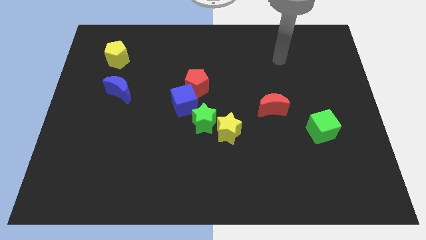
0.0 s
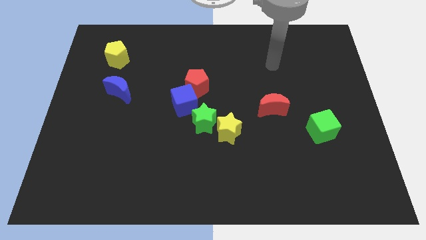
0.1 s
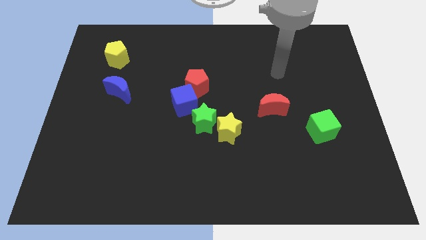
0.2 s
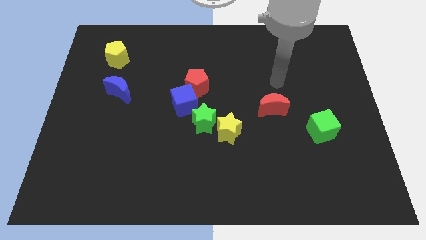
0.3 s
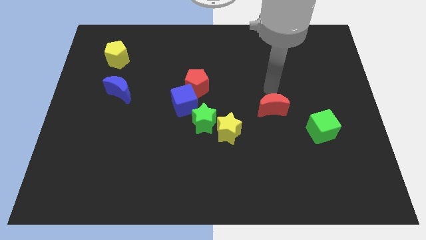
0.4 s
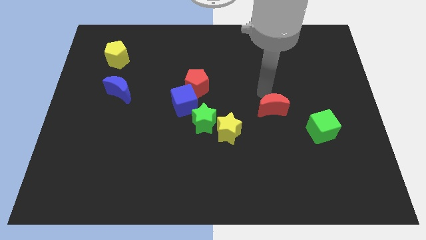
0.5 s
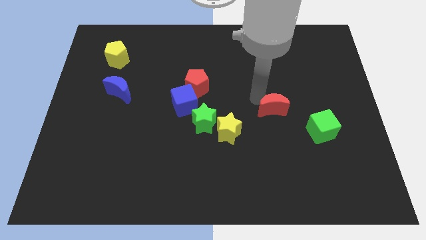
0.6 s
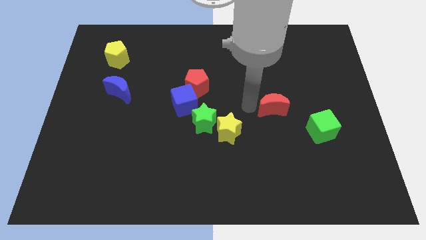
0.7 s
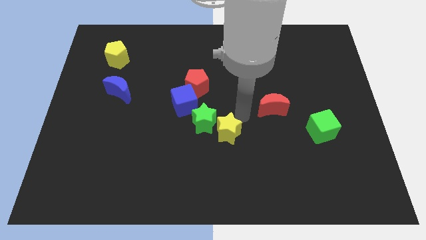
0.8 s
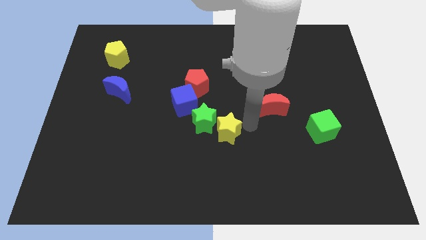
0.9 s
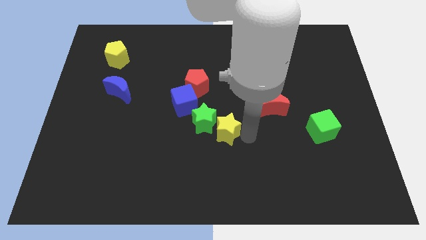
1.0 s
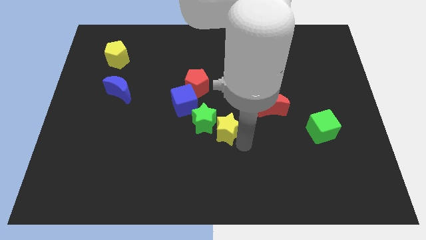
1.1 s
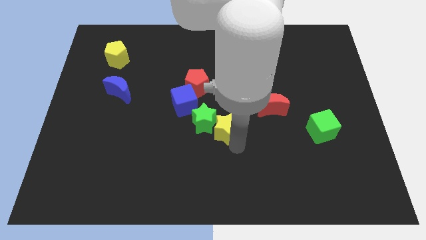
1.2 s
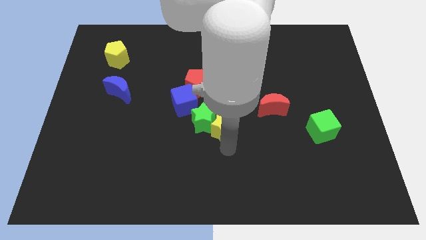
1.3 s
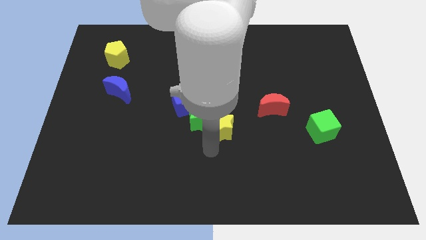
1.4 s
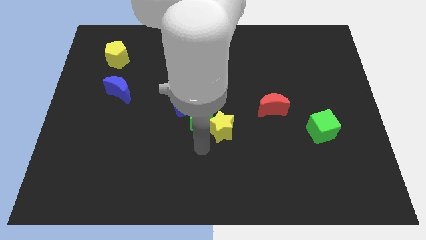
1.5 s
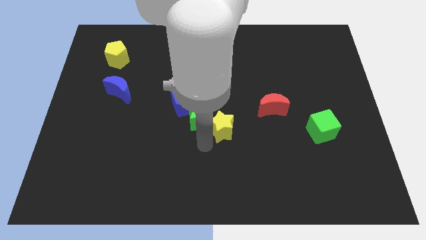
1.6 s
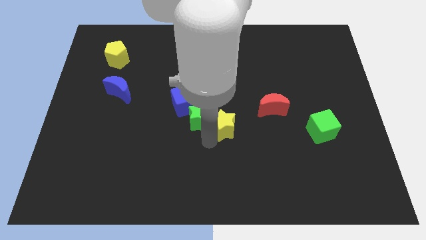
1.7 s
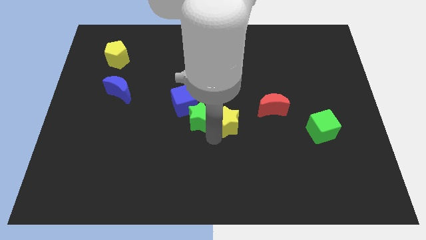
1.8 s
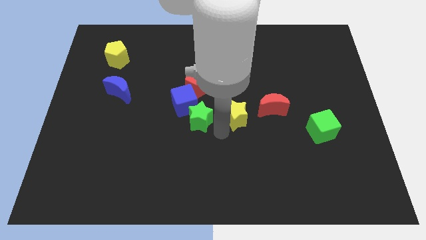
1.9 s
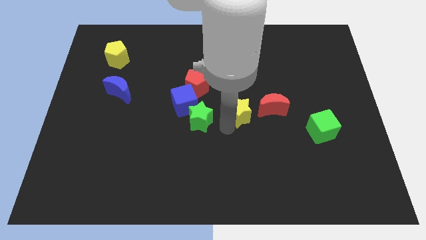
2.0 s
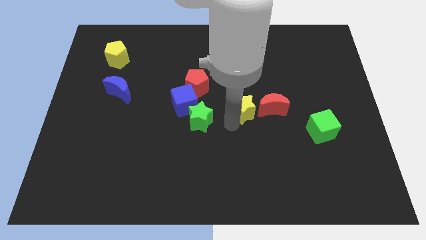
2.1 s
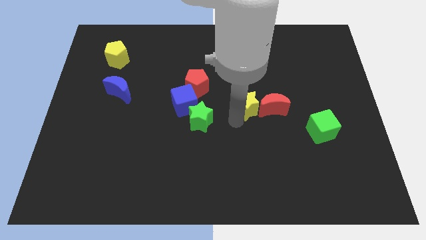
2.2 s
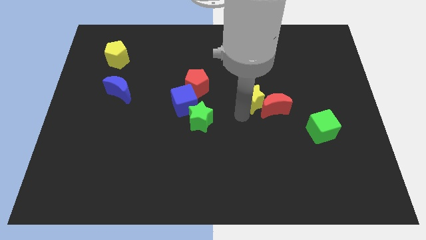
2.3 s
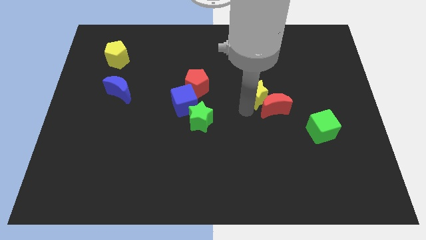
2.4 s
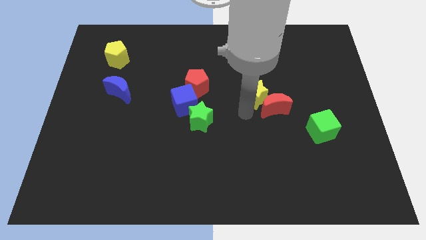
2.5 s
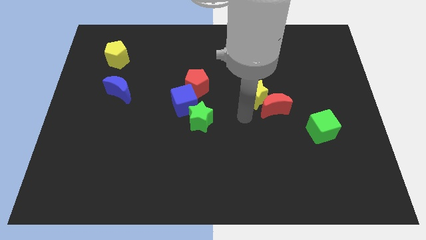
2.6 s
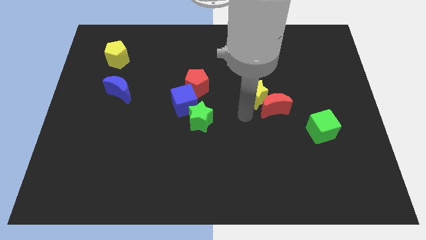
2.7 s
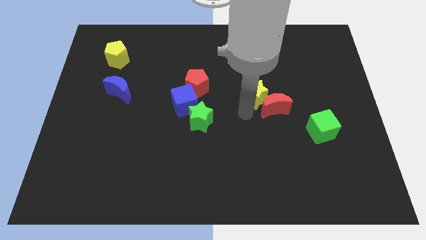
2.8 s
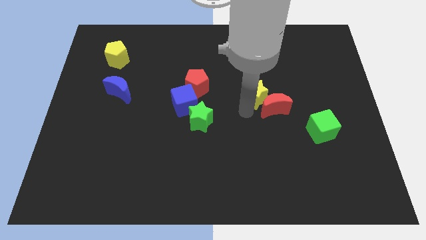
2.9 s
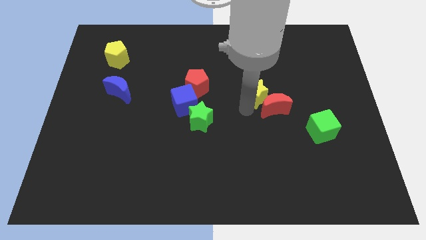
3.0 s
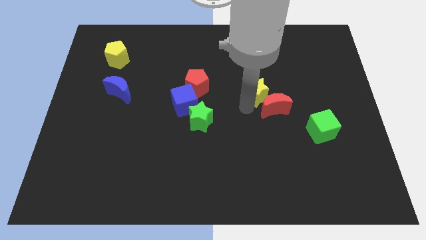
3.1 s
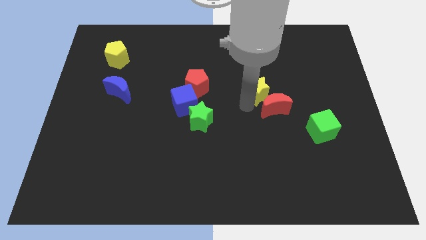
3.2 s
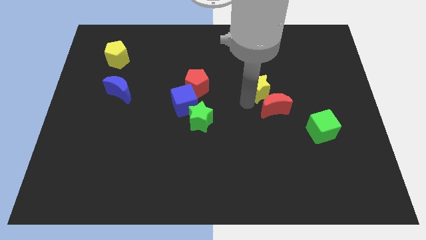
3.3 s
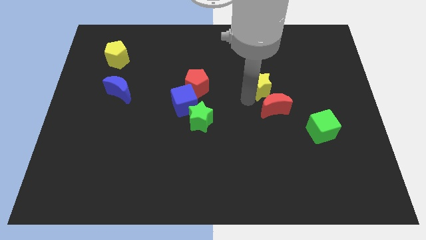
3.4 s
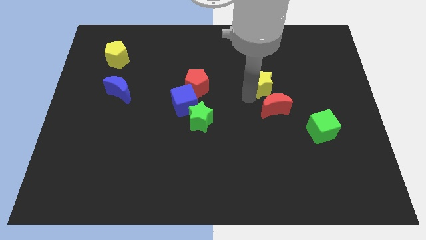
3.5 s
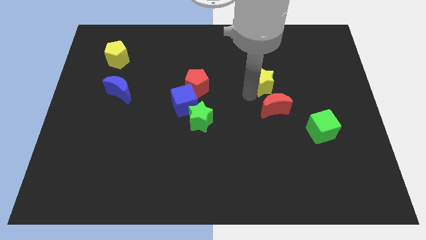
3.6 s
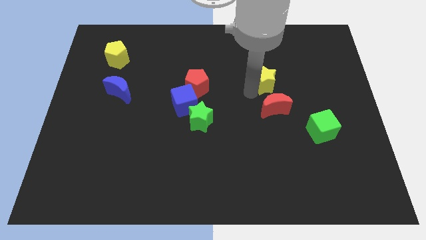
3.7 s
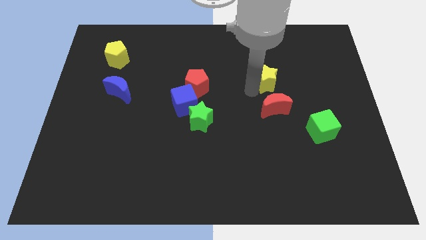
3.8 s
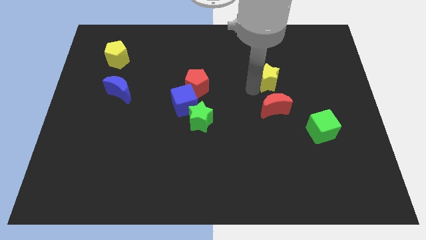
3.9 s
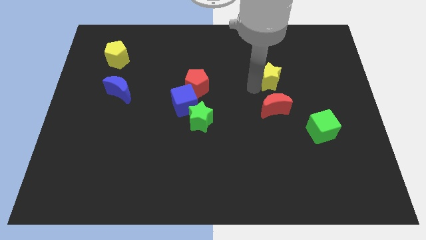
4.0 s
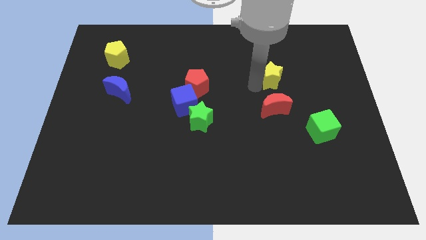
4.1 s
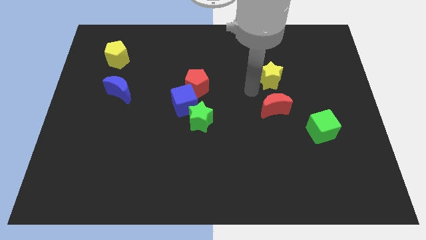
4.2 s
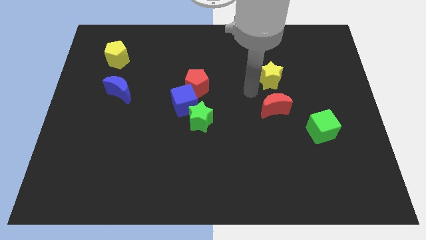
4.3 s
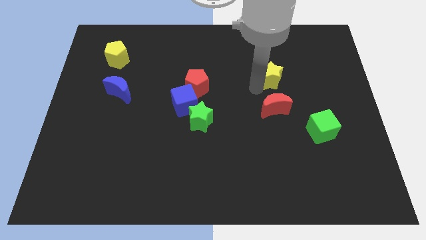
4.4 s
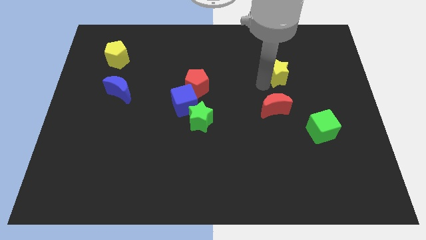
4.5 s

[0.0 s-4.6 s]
move the yellow star upwards and then right

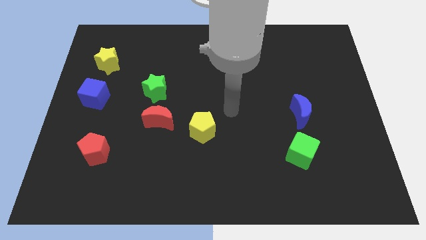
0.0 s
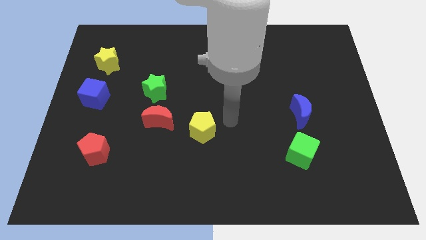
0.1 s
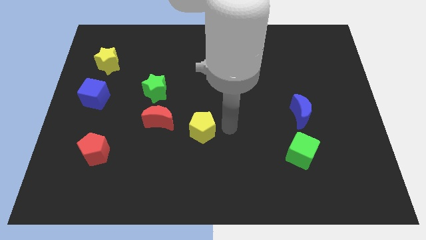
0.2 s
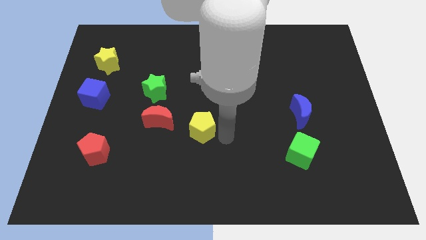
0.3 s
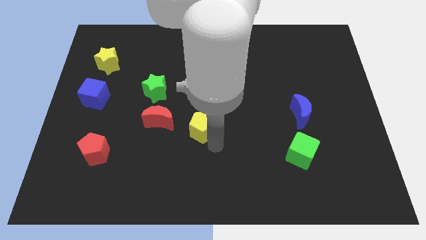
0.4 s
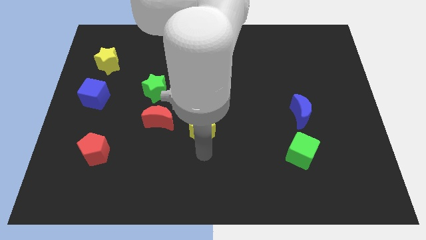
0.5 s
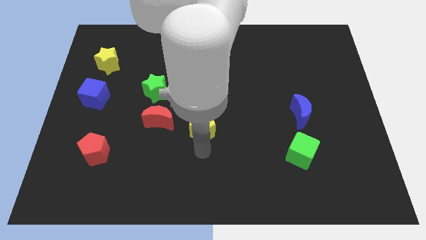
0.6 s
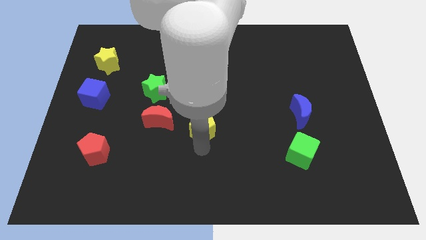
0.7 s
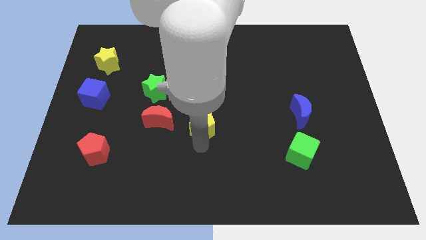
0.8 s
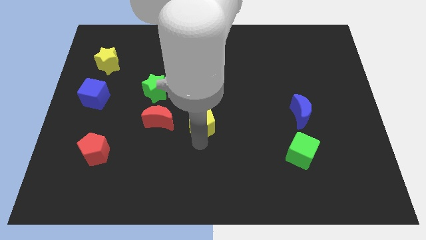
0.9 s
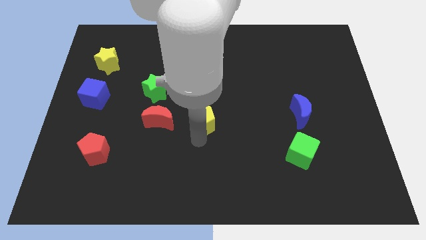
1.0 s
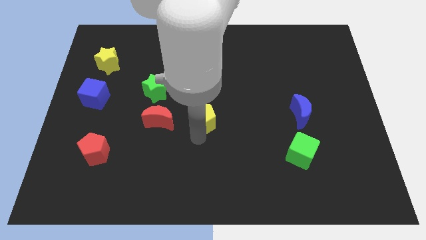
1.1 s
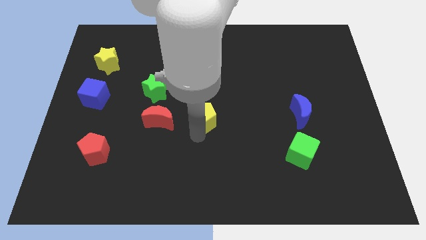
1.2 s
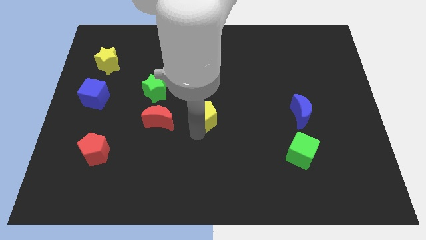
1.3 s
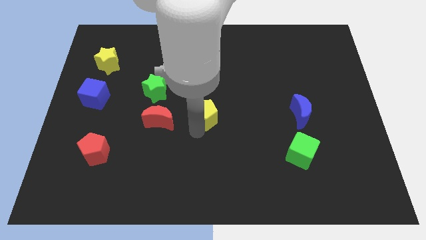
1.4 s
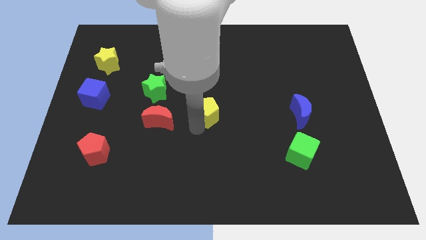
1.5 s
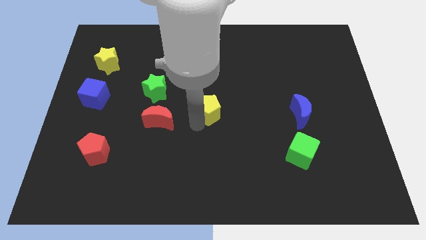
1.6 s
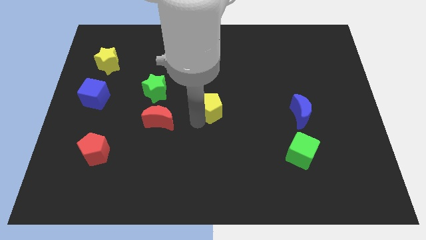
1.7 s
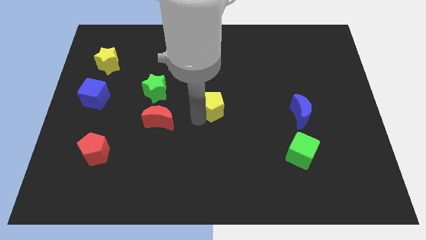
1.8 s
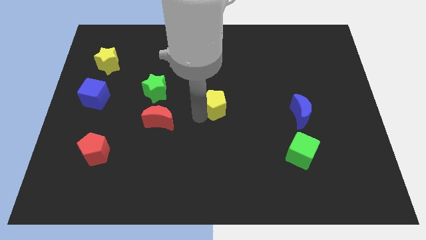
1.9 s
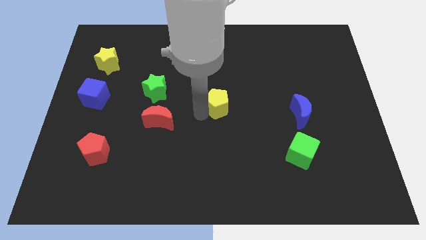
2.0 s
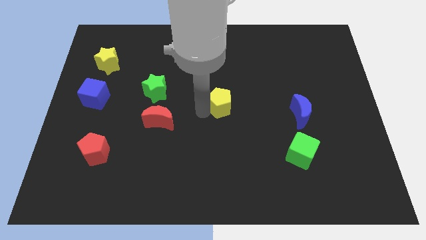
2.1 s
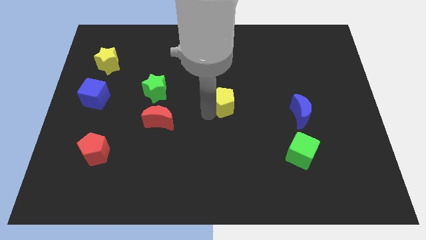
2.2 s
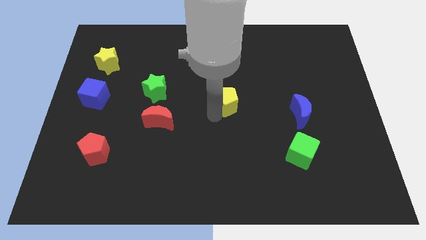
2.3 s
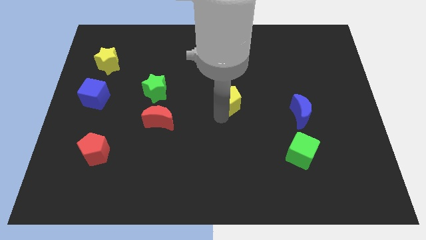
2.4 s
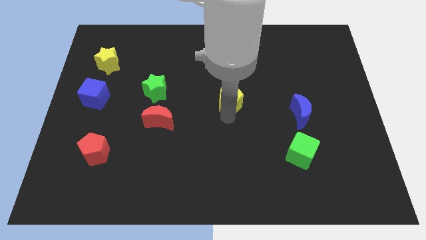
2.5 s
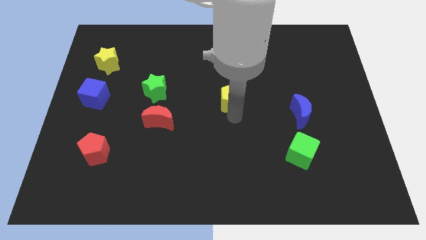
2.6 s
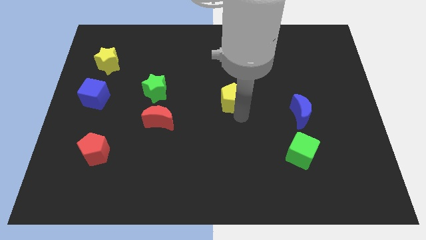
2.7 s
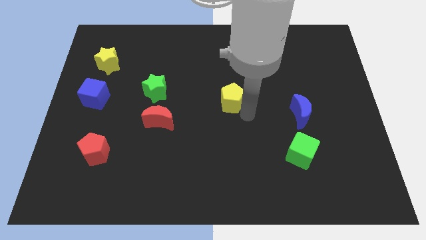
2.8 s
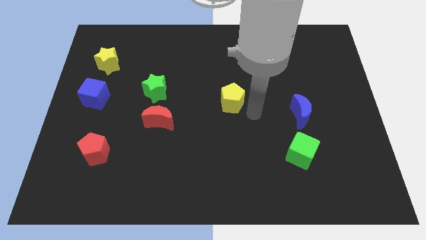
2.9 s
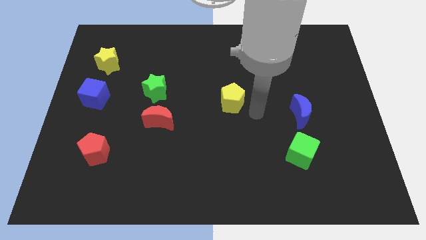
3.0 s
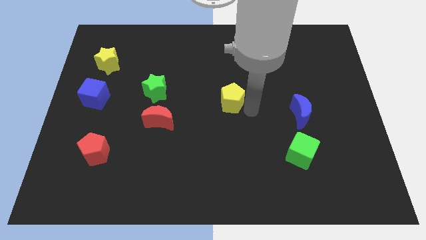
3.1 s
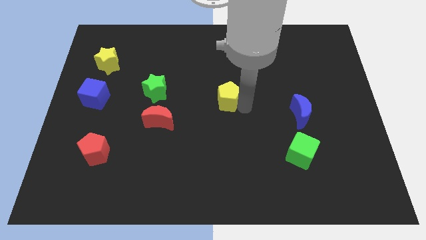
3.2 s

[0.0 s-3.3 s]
move the yellow pentagon a bit up

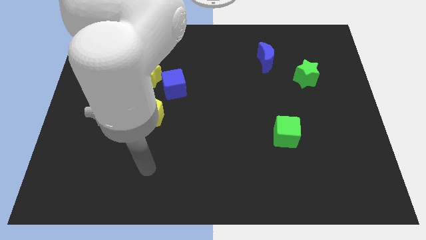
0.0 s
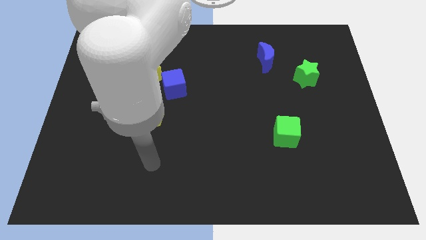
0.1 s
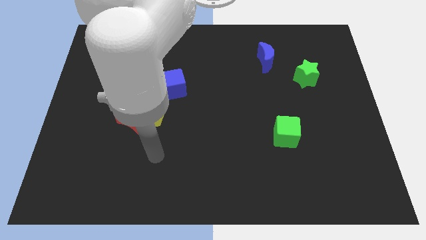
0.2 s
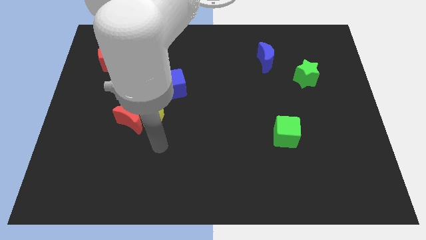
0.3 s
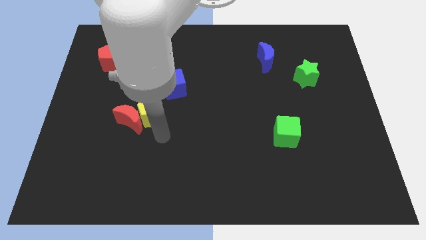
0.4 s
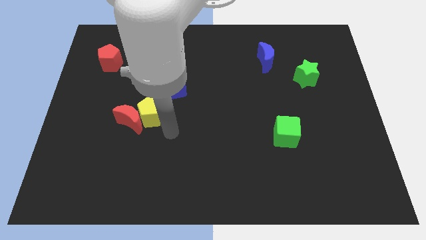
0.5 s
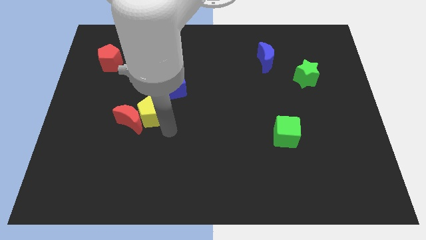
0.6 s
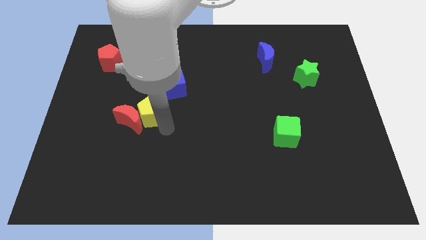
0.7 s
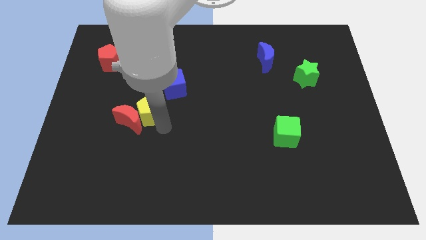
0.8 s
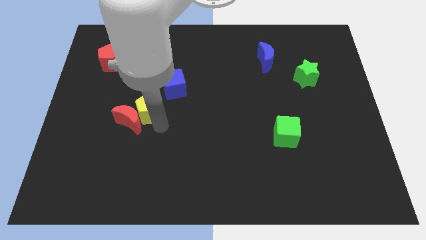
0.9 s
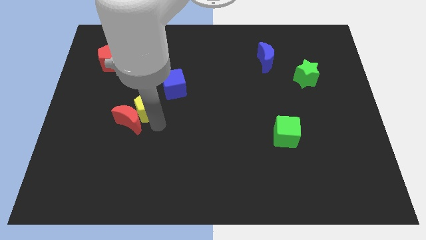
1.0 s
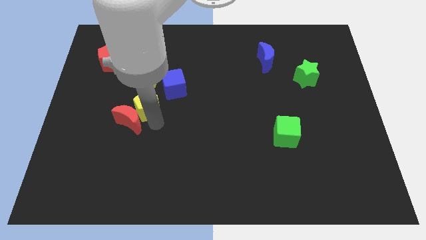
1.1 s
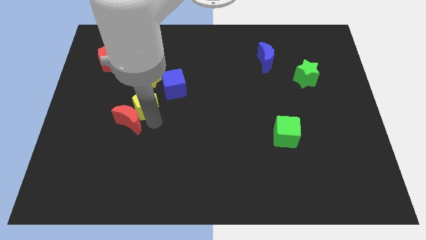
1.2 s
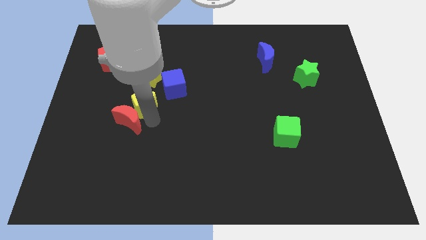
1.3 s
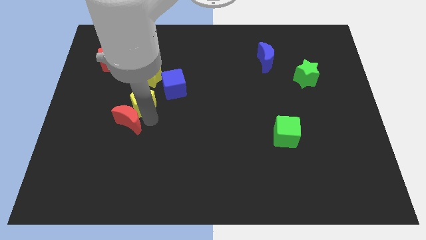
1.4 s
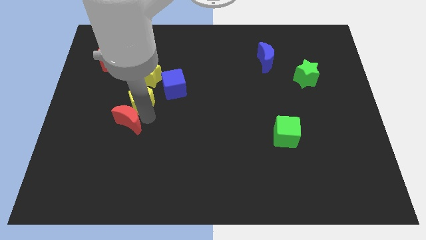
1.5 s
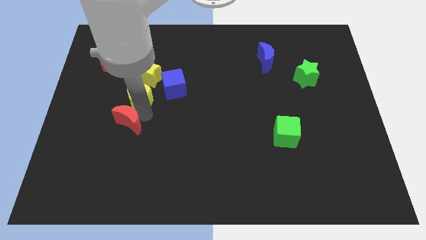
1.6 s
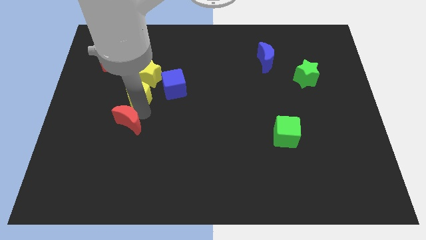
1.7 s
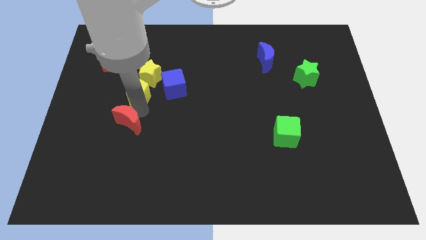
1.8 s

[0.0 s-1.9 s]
move the yellow pentagon somewhat upwards and then left
